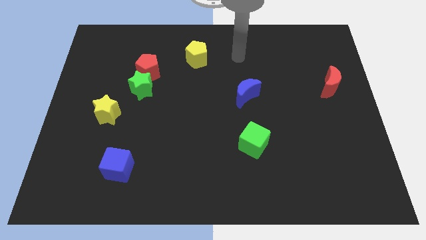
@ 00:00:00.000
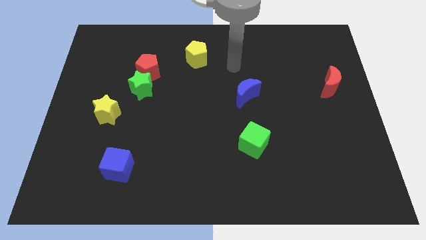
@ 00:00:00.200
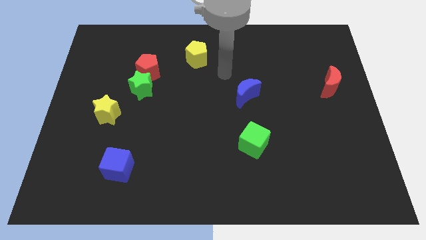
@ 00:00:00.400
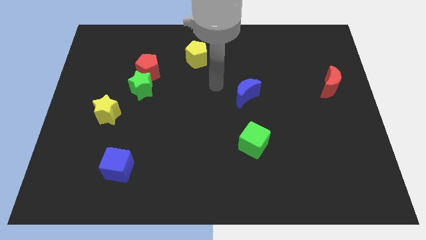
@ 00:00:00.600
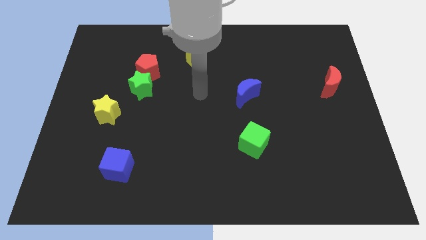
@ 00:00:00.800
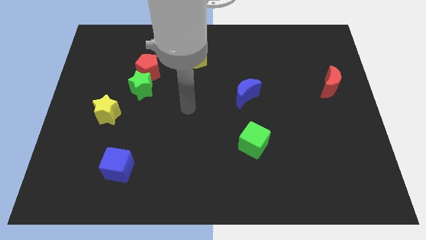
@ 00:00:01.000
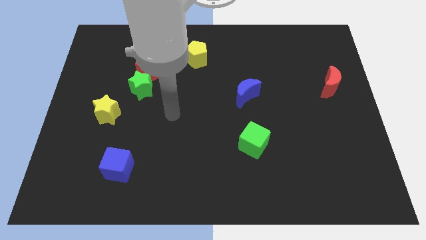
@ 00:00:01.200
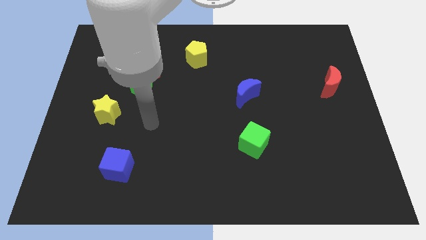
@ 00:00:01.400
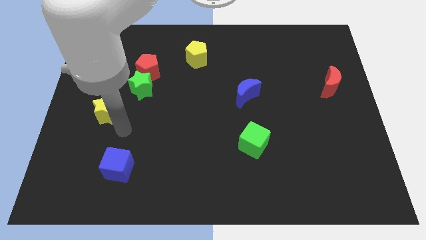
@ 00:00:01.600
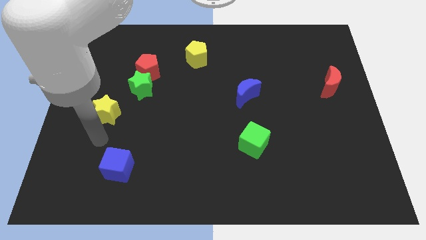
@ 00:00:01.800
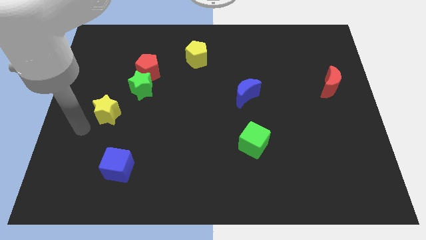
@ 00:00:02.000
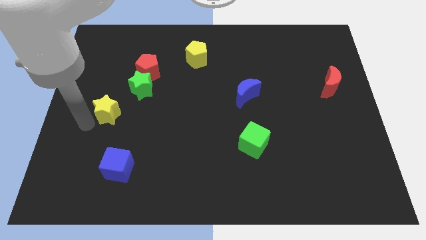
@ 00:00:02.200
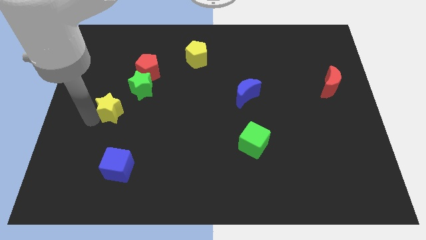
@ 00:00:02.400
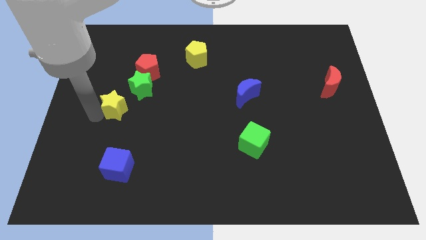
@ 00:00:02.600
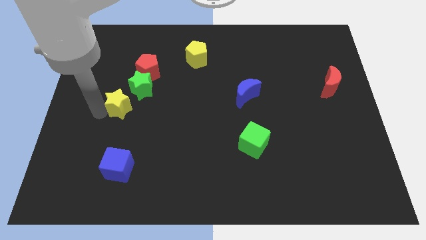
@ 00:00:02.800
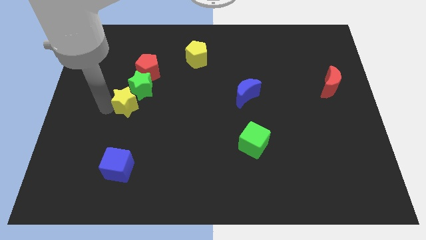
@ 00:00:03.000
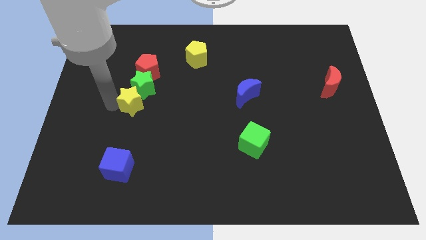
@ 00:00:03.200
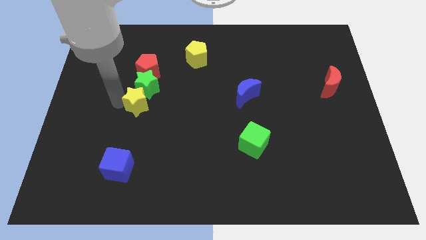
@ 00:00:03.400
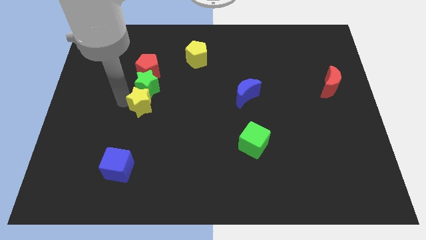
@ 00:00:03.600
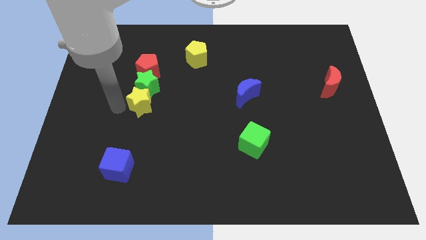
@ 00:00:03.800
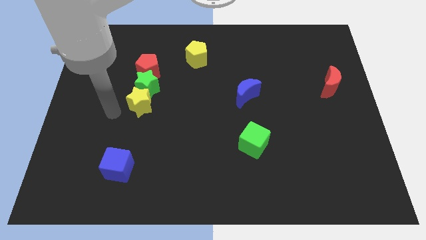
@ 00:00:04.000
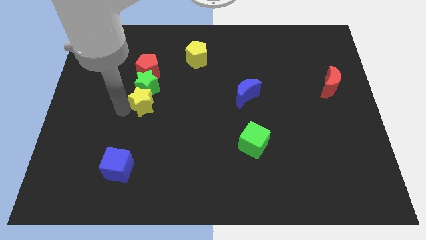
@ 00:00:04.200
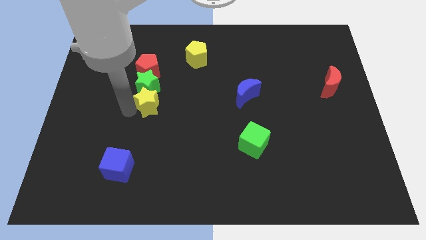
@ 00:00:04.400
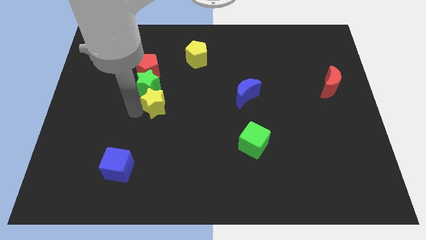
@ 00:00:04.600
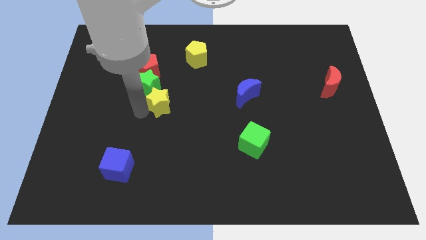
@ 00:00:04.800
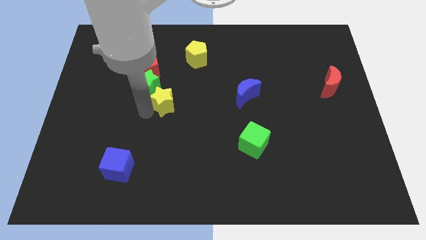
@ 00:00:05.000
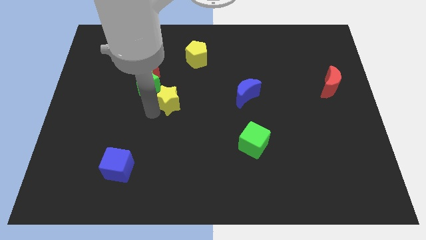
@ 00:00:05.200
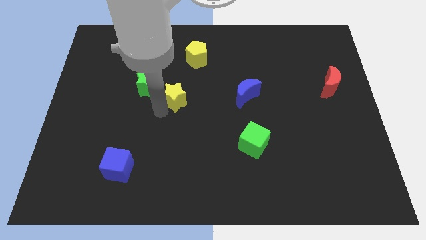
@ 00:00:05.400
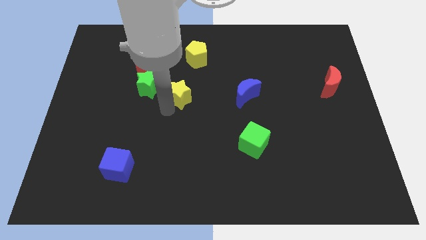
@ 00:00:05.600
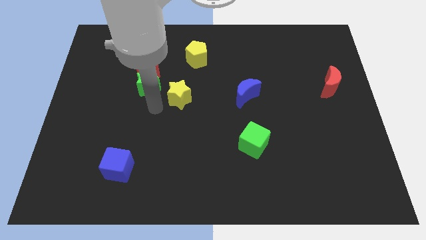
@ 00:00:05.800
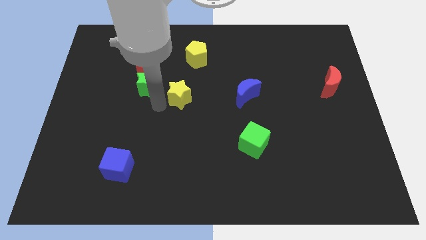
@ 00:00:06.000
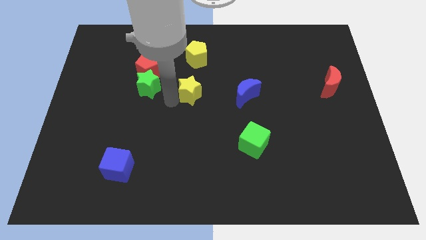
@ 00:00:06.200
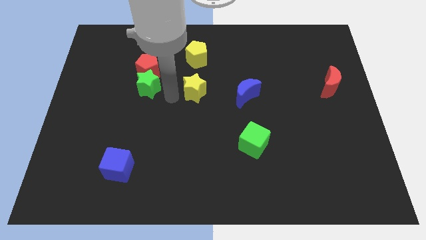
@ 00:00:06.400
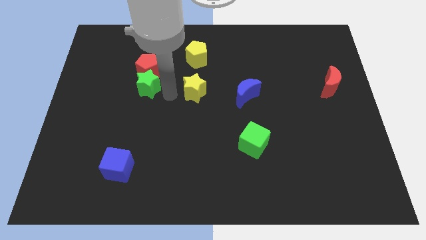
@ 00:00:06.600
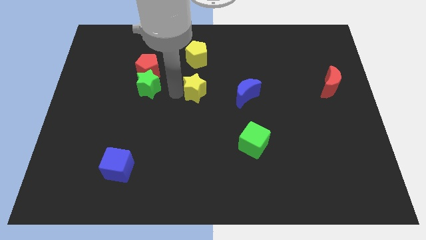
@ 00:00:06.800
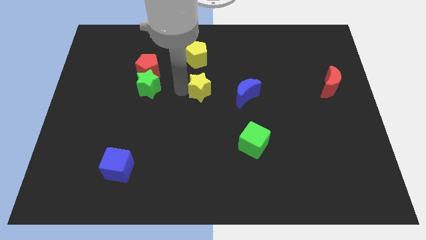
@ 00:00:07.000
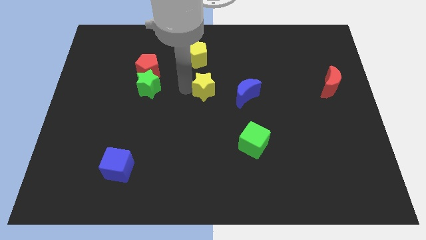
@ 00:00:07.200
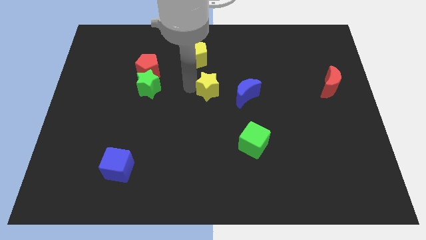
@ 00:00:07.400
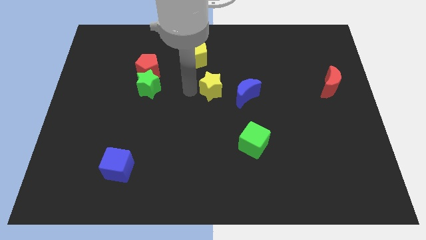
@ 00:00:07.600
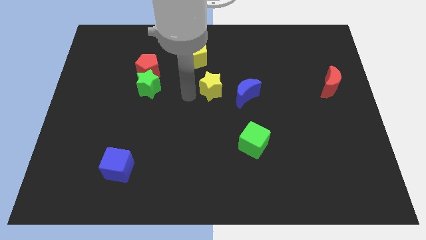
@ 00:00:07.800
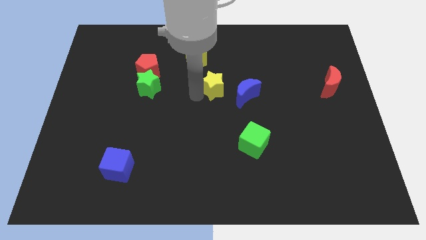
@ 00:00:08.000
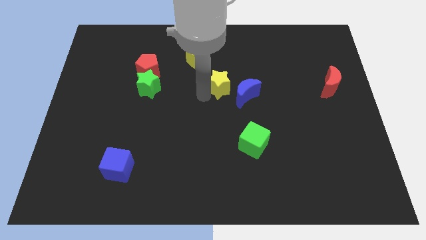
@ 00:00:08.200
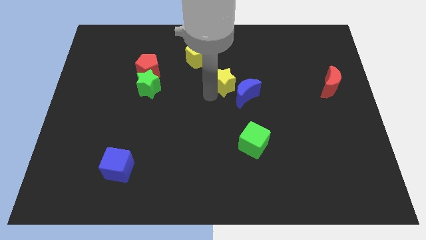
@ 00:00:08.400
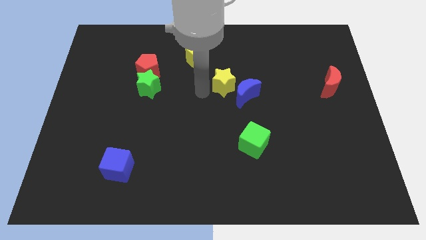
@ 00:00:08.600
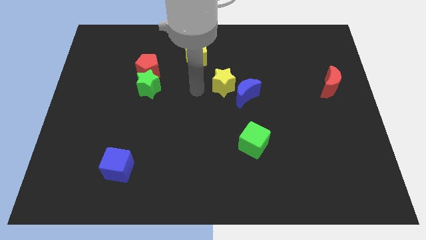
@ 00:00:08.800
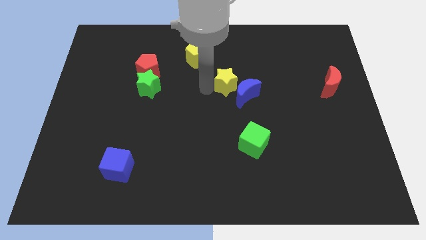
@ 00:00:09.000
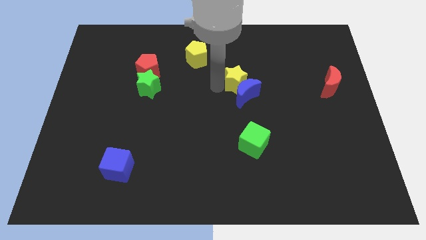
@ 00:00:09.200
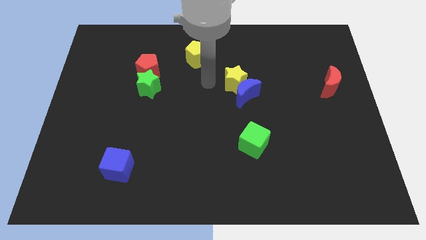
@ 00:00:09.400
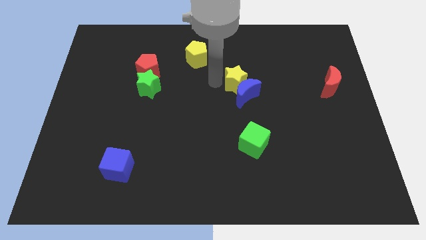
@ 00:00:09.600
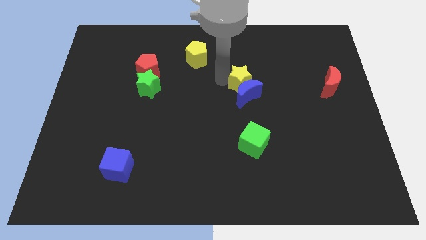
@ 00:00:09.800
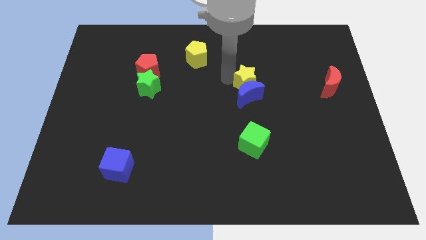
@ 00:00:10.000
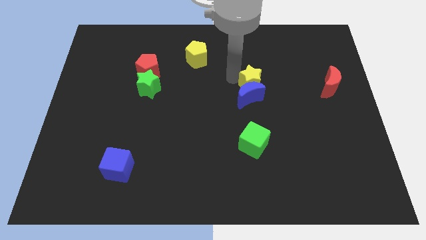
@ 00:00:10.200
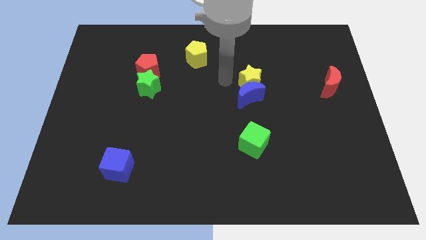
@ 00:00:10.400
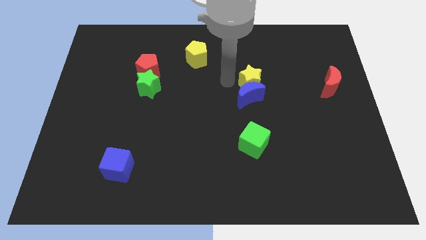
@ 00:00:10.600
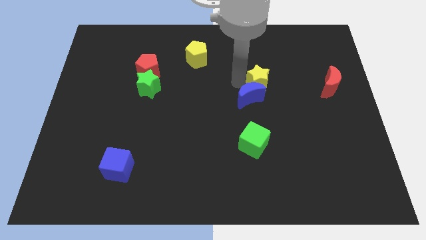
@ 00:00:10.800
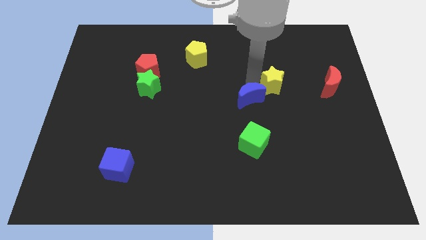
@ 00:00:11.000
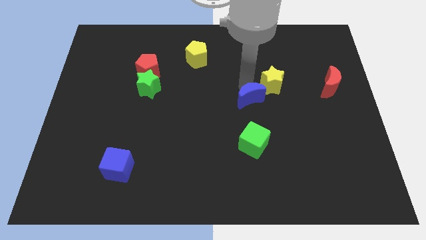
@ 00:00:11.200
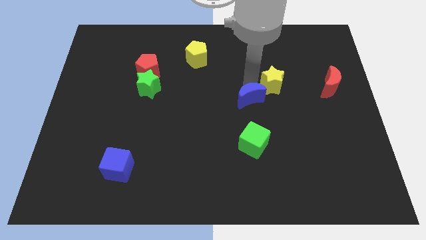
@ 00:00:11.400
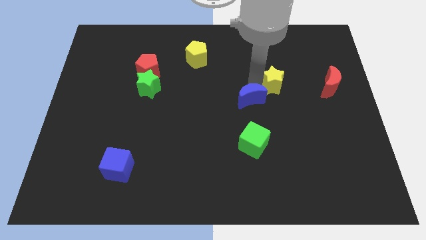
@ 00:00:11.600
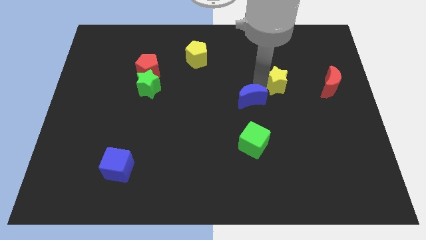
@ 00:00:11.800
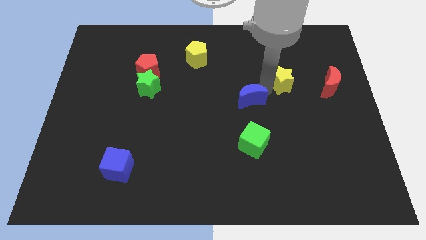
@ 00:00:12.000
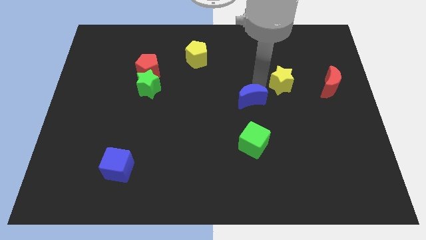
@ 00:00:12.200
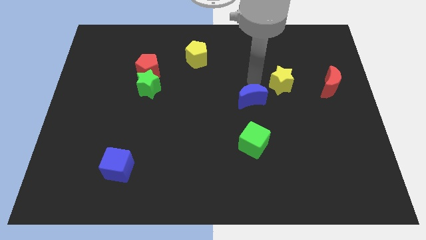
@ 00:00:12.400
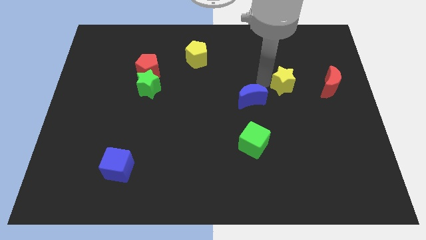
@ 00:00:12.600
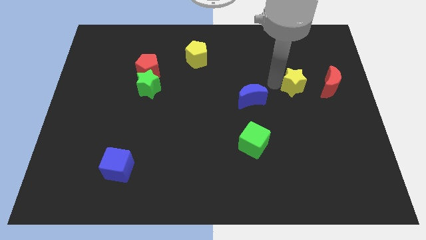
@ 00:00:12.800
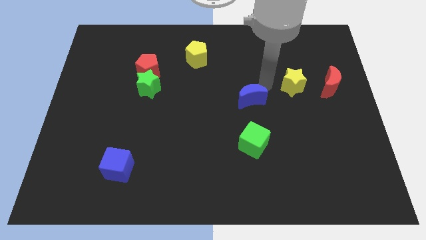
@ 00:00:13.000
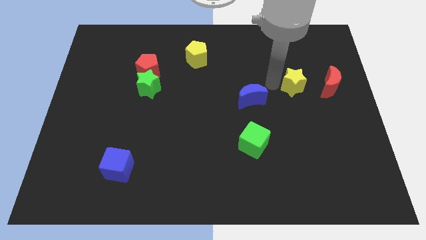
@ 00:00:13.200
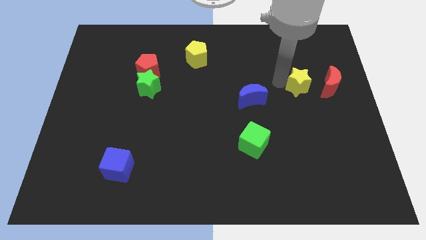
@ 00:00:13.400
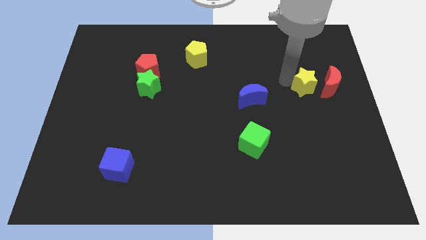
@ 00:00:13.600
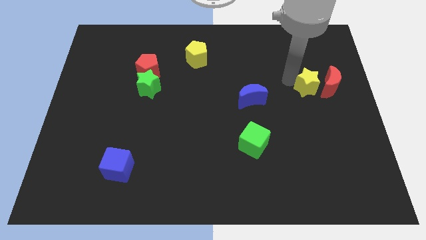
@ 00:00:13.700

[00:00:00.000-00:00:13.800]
slide the yellow star towards the red moon
